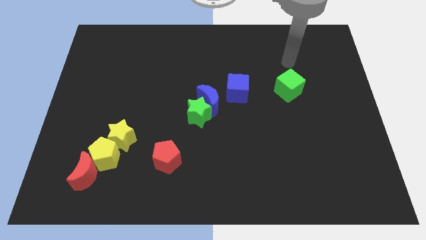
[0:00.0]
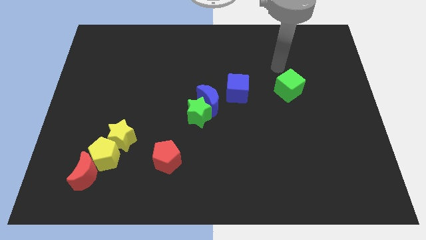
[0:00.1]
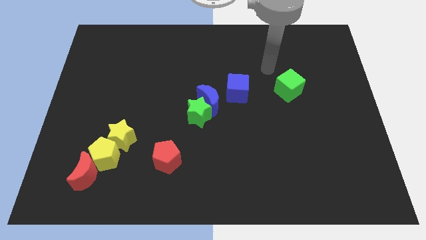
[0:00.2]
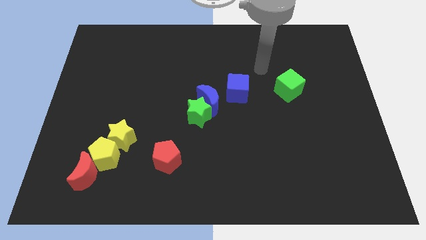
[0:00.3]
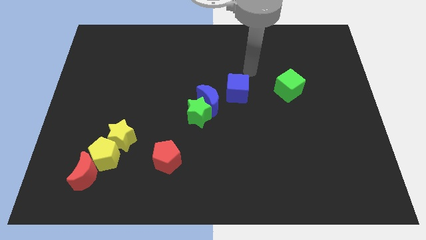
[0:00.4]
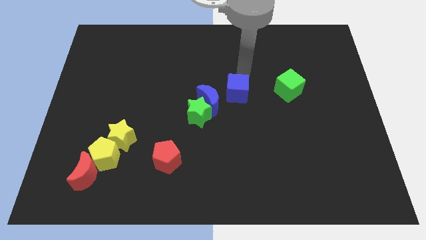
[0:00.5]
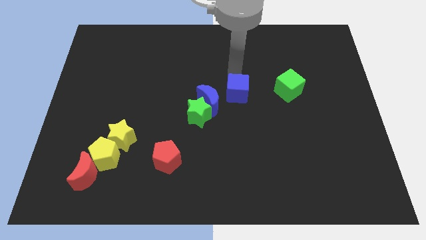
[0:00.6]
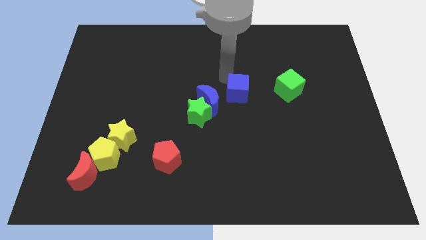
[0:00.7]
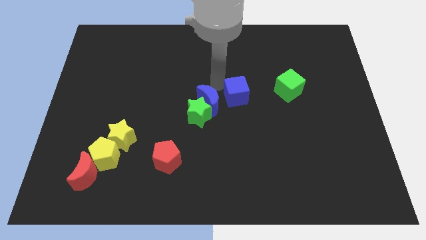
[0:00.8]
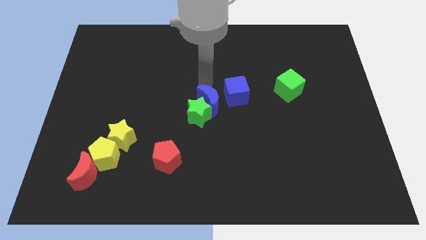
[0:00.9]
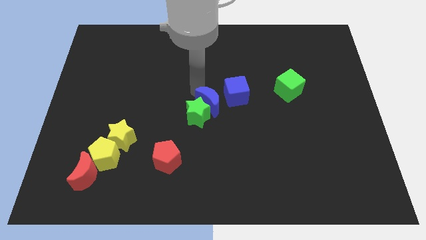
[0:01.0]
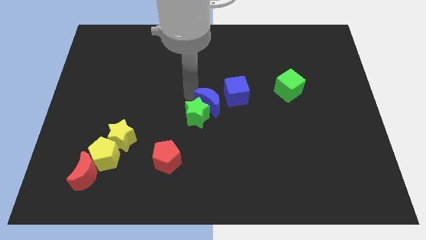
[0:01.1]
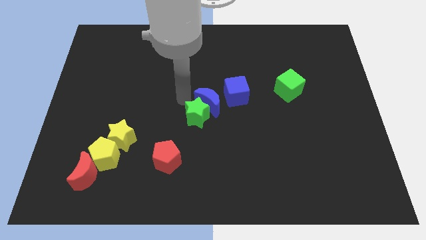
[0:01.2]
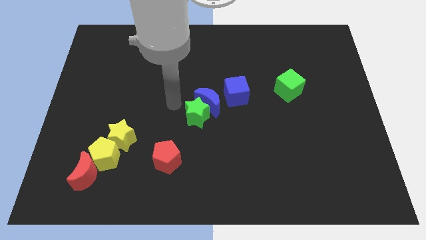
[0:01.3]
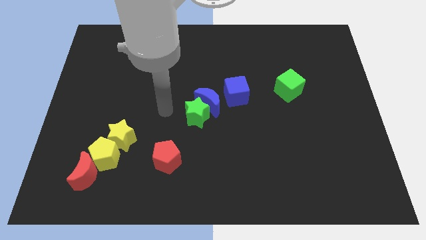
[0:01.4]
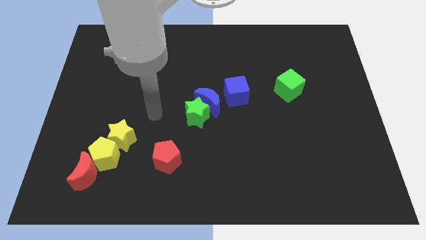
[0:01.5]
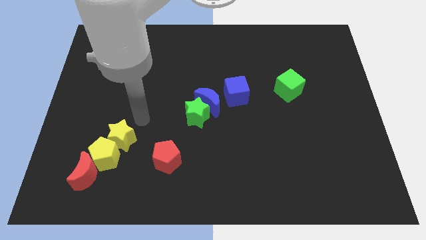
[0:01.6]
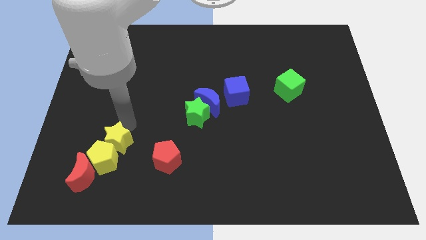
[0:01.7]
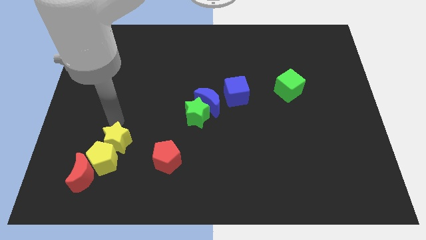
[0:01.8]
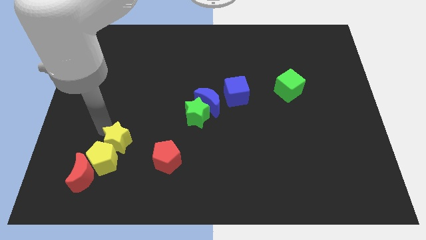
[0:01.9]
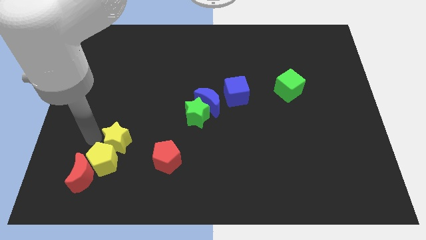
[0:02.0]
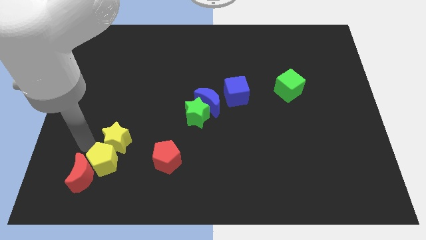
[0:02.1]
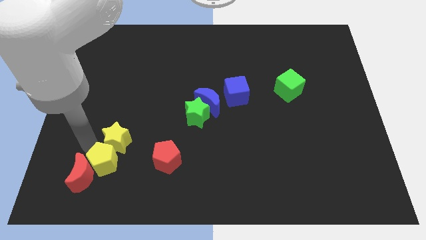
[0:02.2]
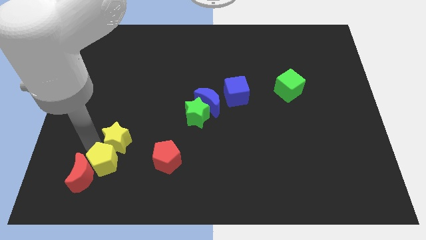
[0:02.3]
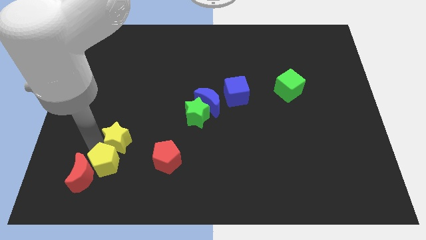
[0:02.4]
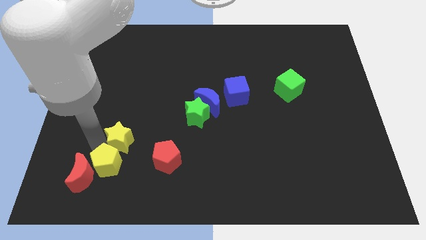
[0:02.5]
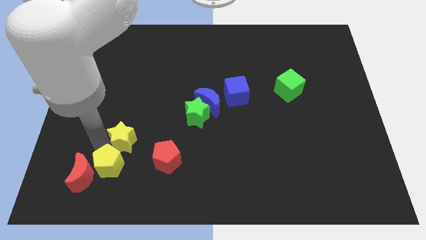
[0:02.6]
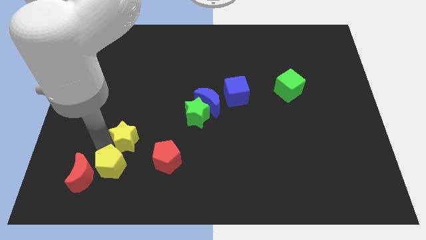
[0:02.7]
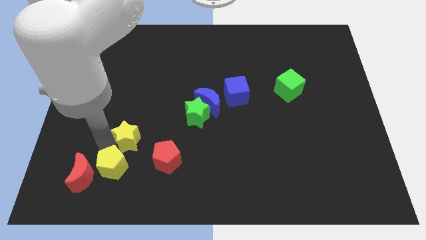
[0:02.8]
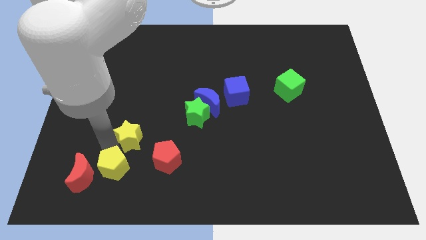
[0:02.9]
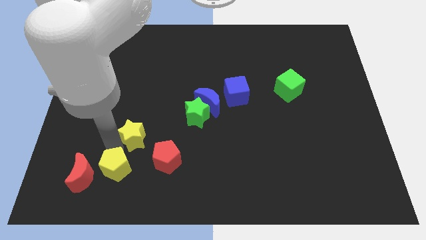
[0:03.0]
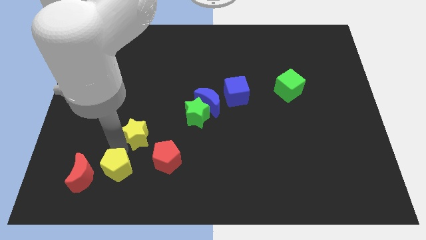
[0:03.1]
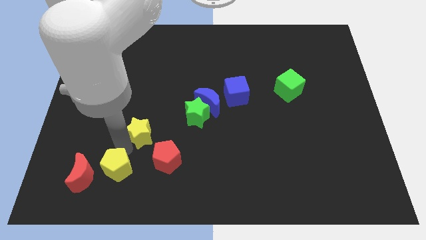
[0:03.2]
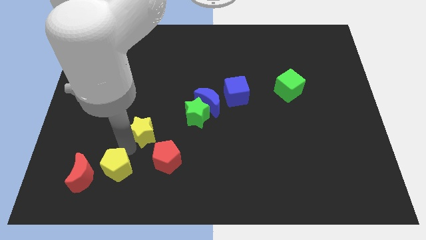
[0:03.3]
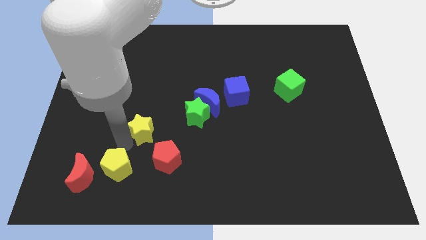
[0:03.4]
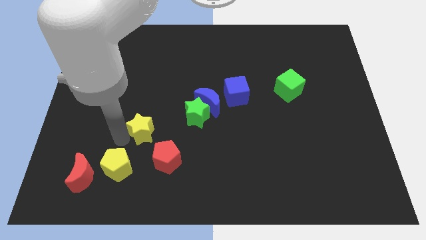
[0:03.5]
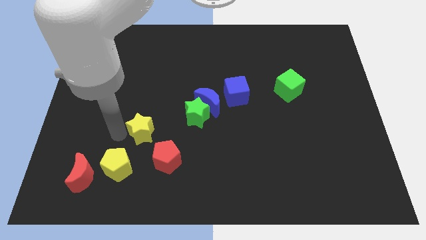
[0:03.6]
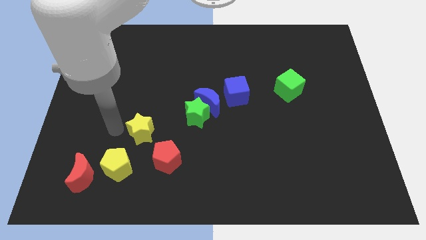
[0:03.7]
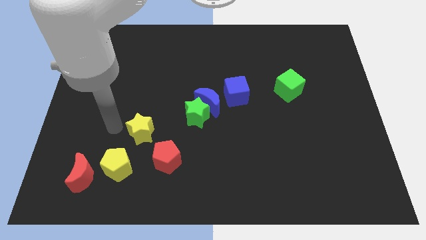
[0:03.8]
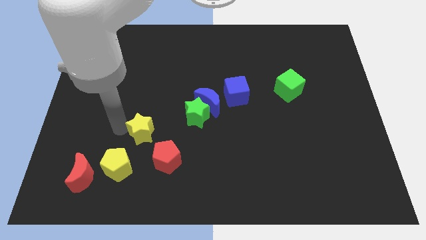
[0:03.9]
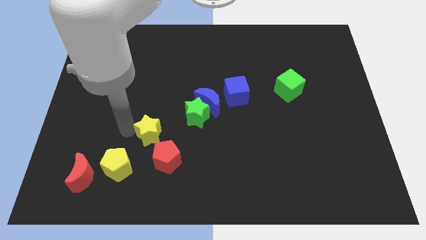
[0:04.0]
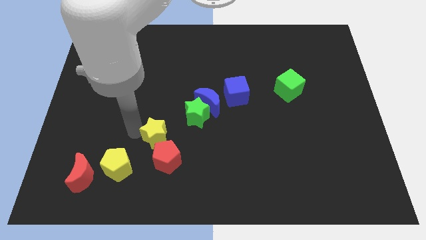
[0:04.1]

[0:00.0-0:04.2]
slide the yellow star a little bit right

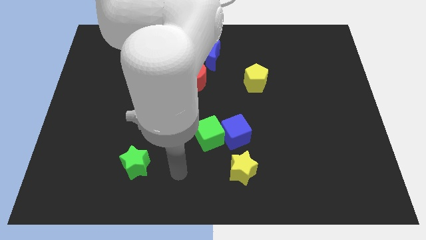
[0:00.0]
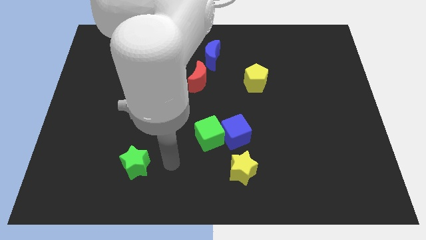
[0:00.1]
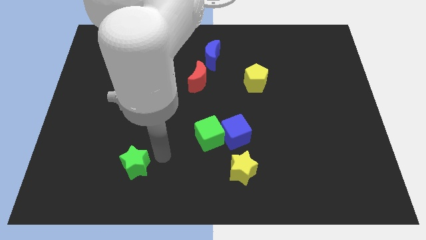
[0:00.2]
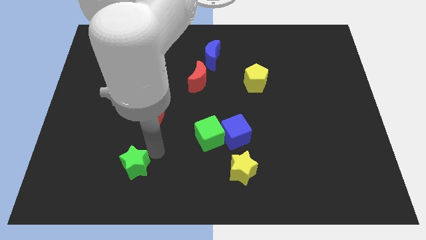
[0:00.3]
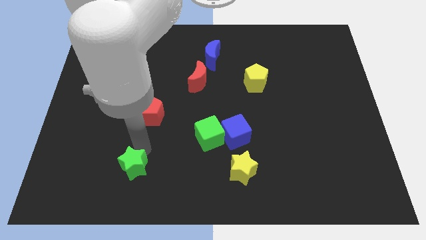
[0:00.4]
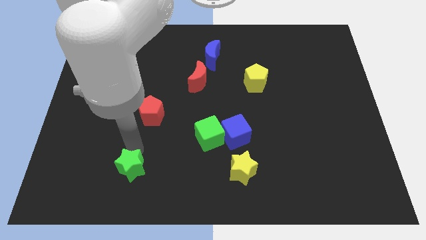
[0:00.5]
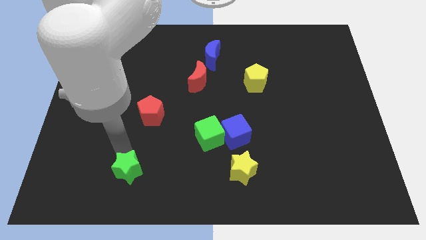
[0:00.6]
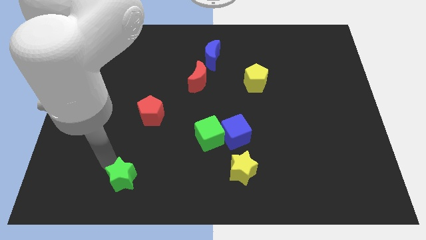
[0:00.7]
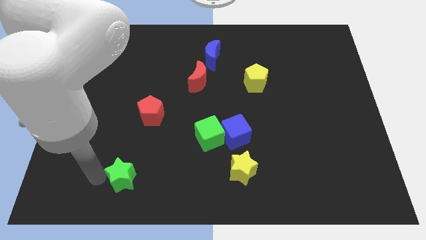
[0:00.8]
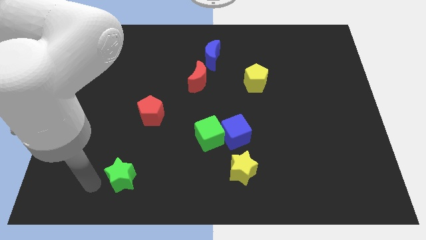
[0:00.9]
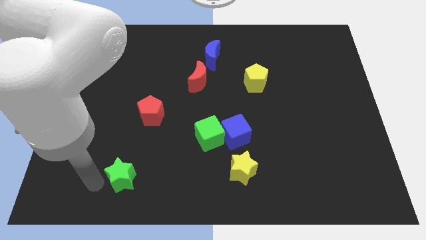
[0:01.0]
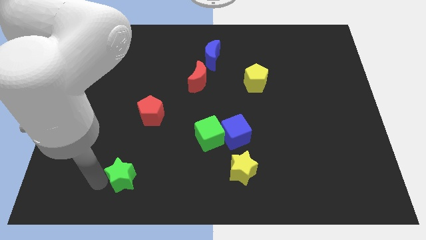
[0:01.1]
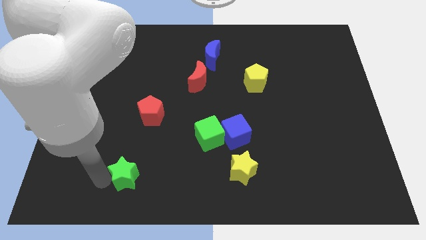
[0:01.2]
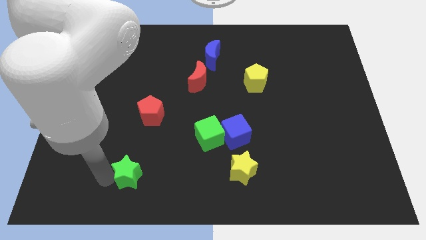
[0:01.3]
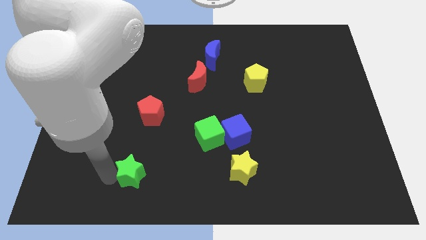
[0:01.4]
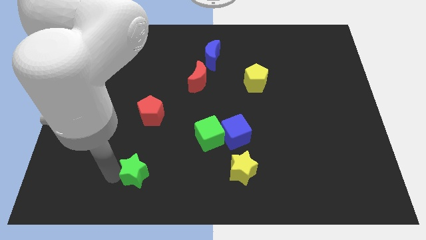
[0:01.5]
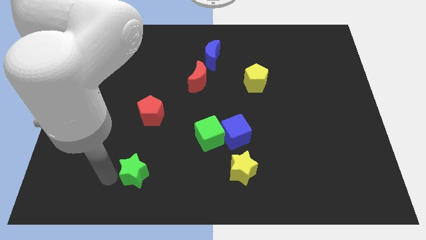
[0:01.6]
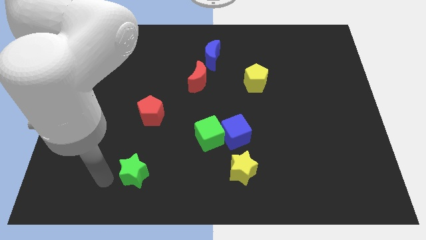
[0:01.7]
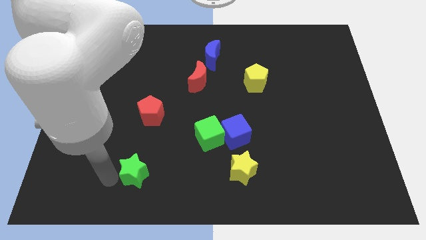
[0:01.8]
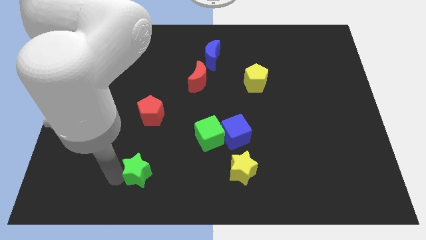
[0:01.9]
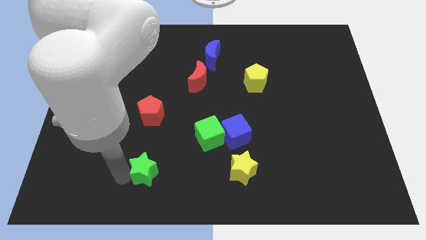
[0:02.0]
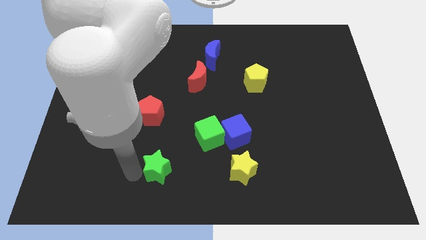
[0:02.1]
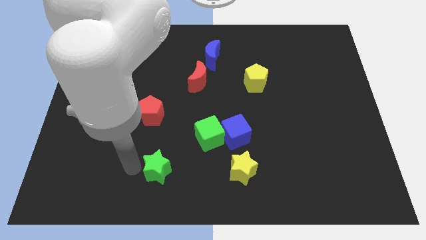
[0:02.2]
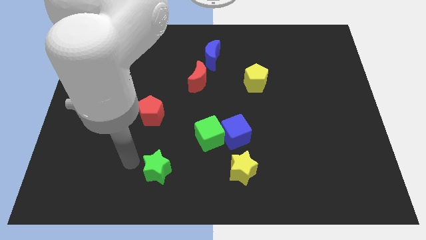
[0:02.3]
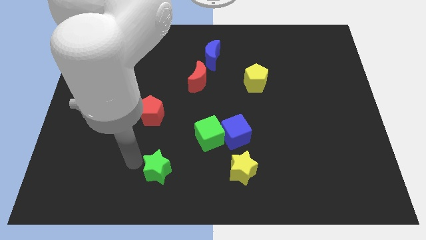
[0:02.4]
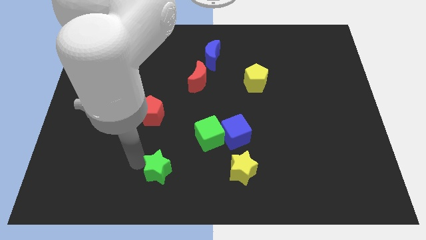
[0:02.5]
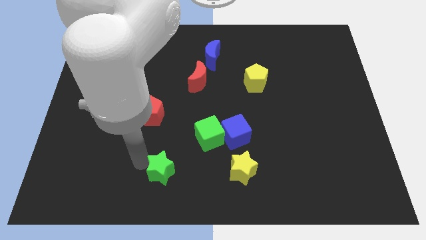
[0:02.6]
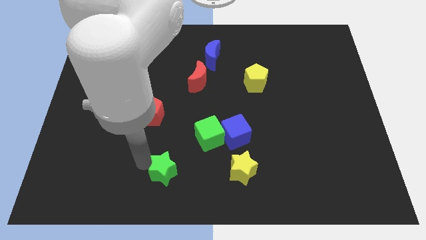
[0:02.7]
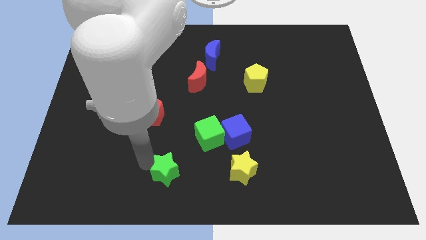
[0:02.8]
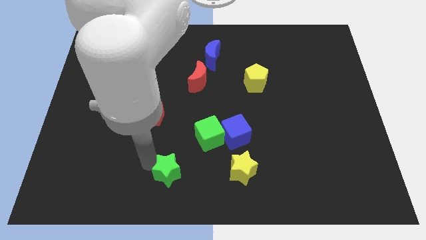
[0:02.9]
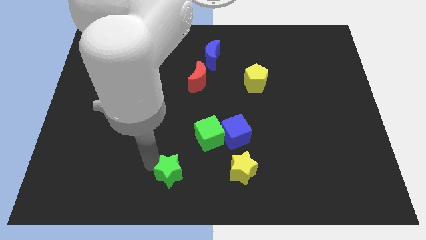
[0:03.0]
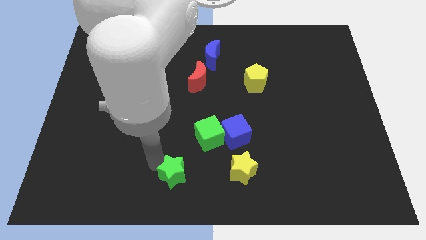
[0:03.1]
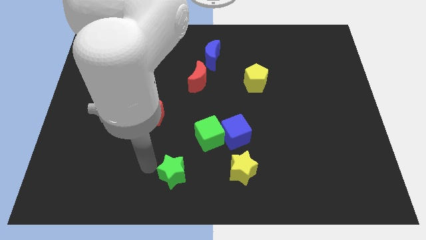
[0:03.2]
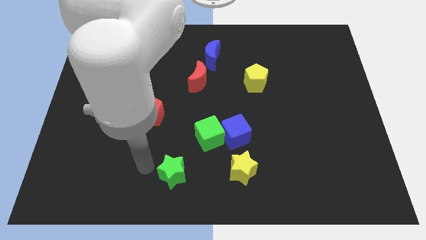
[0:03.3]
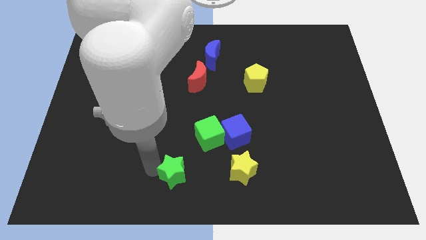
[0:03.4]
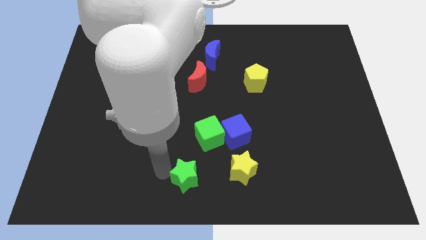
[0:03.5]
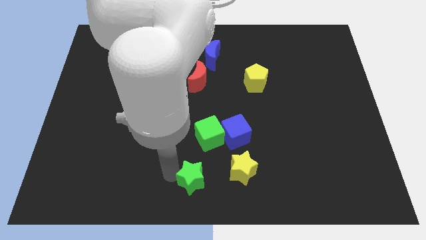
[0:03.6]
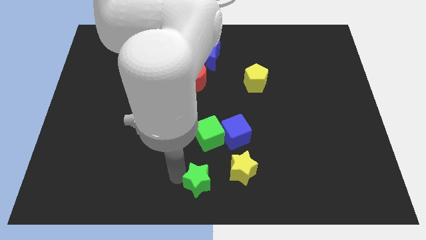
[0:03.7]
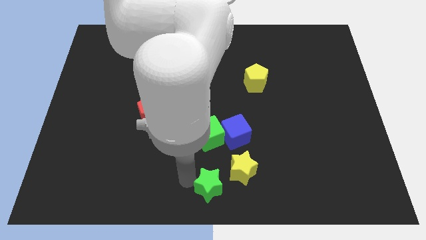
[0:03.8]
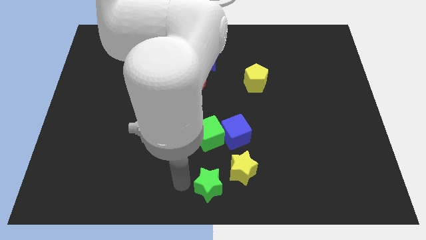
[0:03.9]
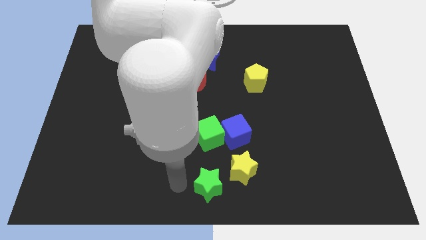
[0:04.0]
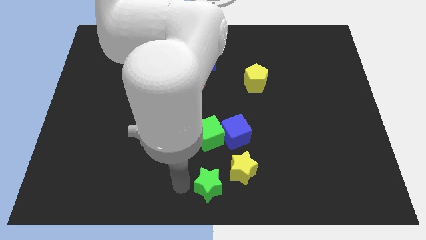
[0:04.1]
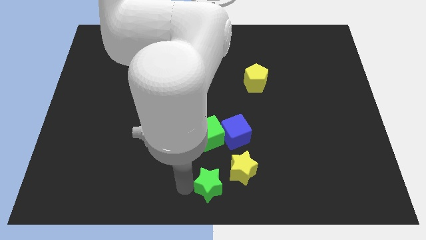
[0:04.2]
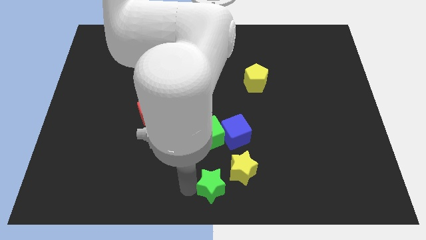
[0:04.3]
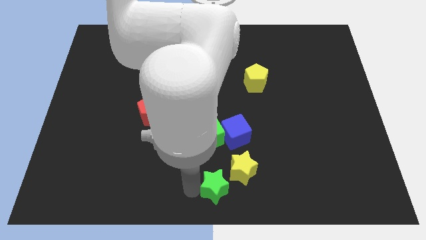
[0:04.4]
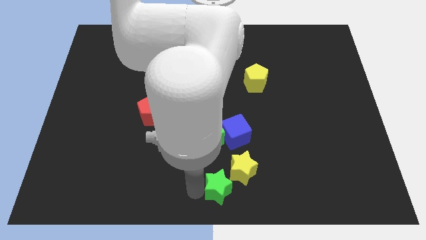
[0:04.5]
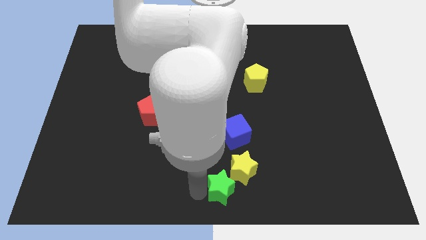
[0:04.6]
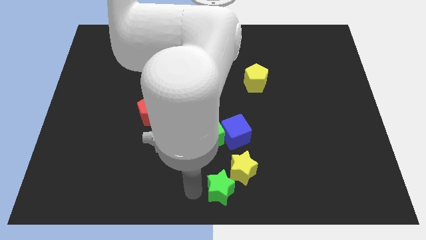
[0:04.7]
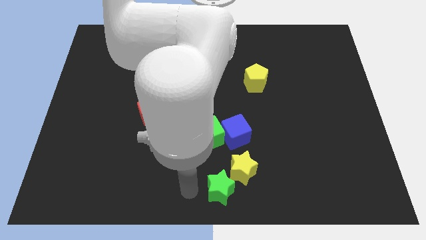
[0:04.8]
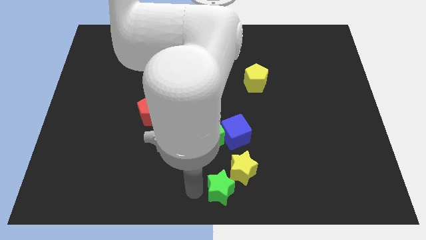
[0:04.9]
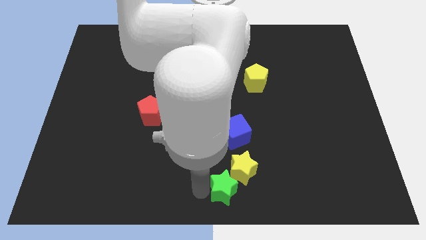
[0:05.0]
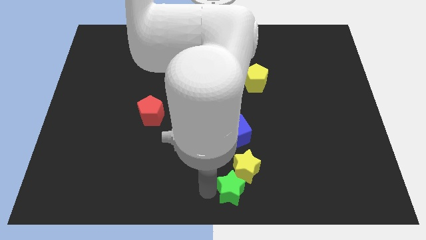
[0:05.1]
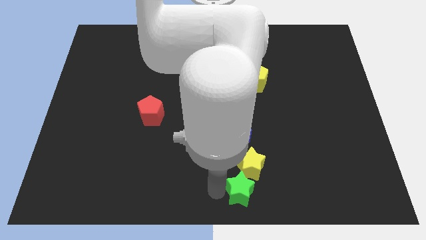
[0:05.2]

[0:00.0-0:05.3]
slide the green star right
